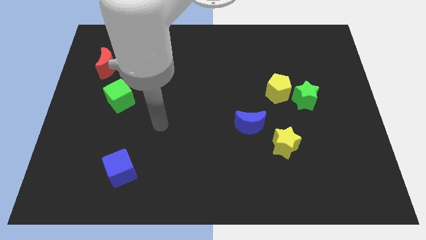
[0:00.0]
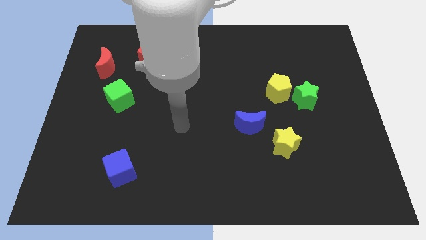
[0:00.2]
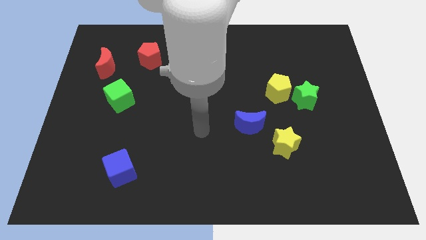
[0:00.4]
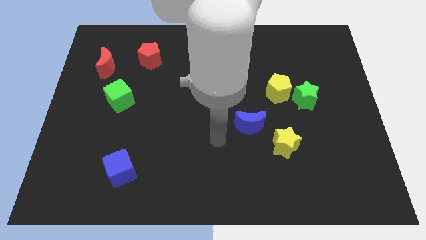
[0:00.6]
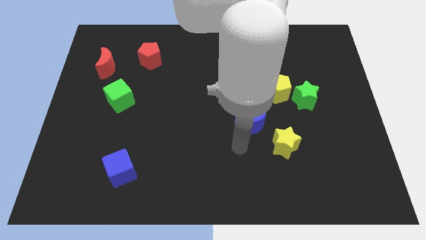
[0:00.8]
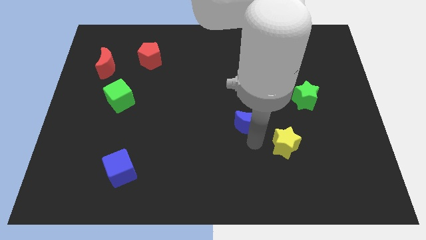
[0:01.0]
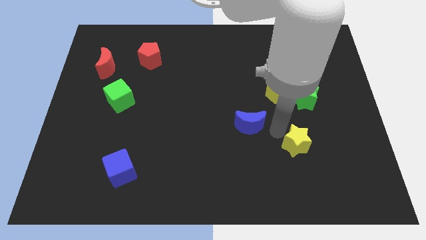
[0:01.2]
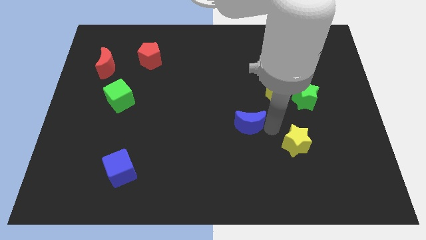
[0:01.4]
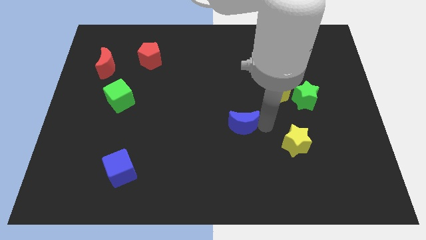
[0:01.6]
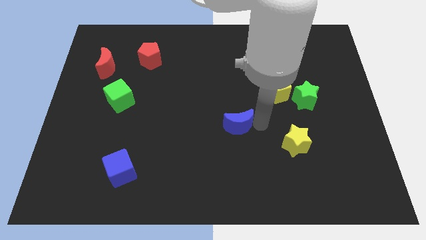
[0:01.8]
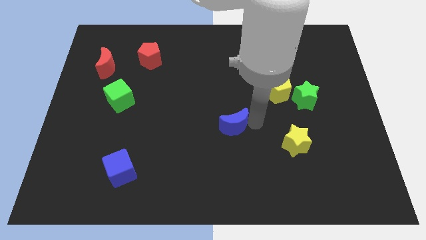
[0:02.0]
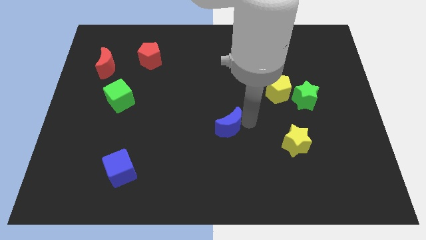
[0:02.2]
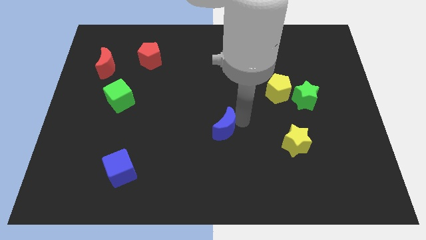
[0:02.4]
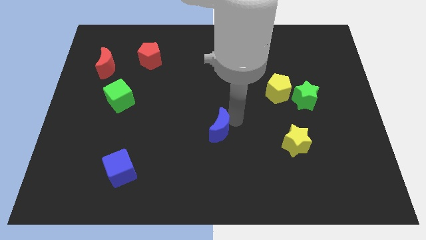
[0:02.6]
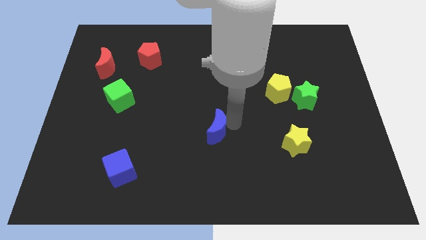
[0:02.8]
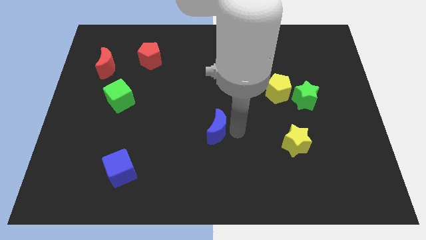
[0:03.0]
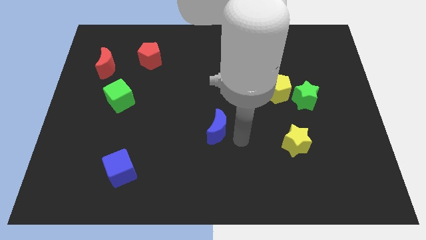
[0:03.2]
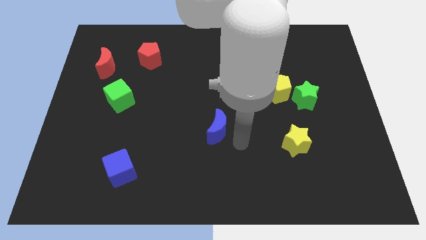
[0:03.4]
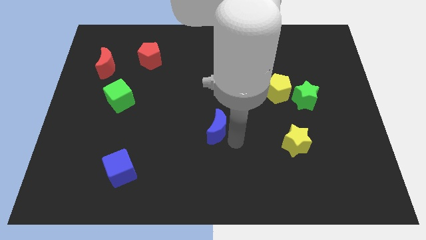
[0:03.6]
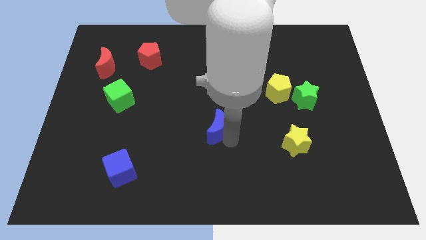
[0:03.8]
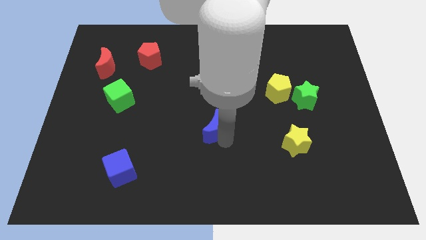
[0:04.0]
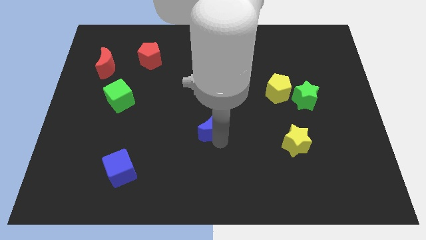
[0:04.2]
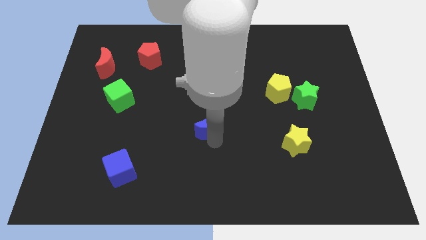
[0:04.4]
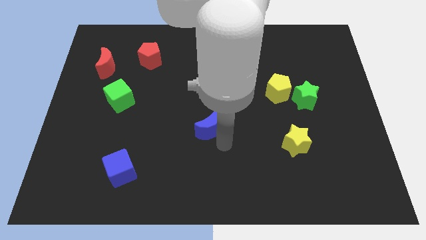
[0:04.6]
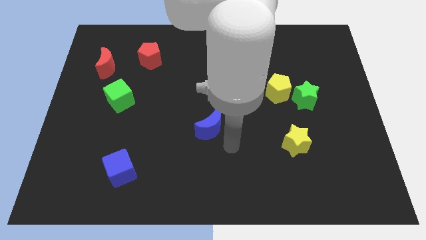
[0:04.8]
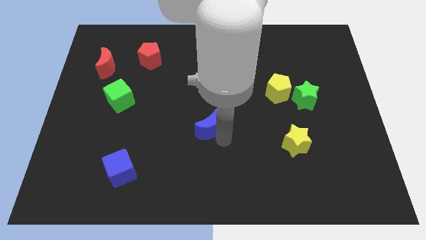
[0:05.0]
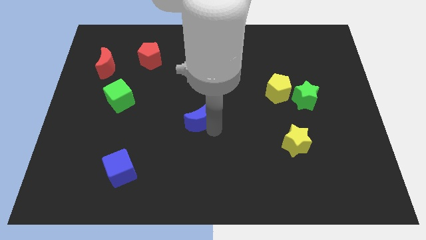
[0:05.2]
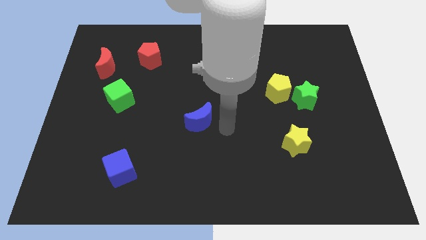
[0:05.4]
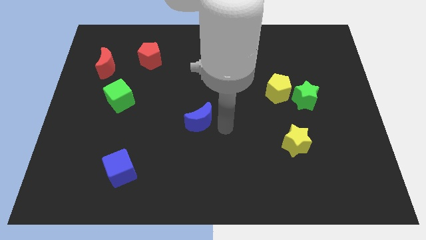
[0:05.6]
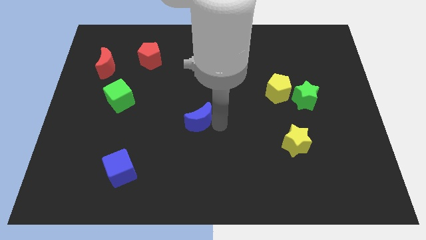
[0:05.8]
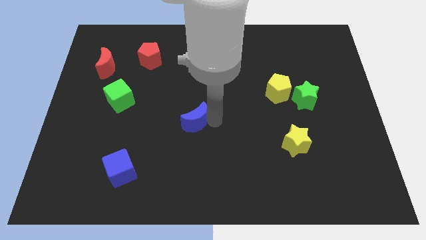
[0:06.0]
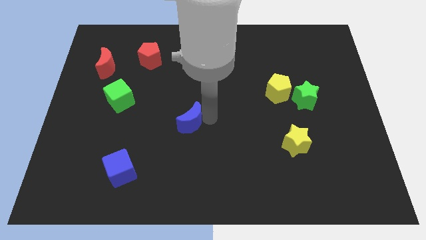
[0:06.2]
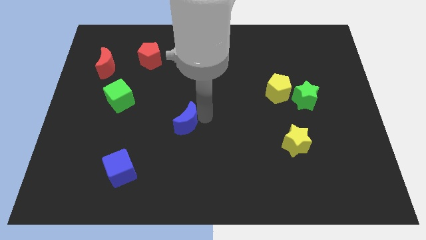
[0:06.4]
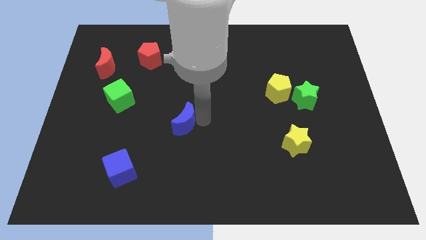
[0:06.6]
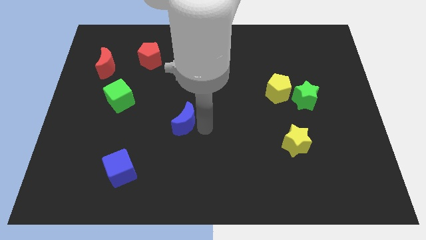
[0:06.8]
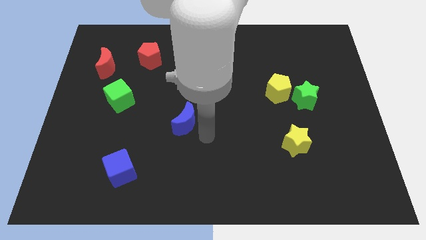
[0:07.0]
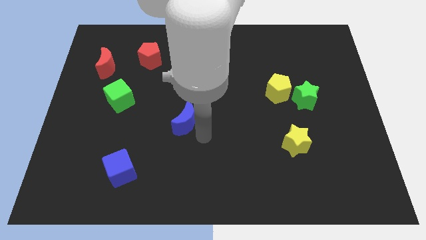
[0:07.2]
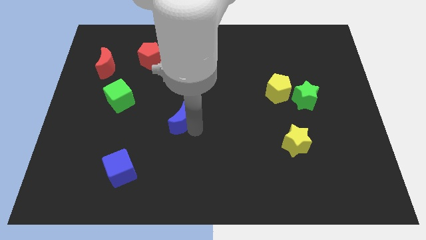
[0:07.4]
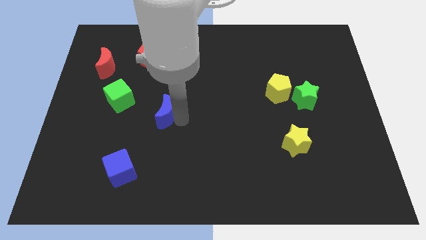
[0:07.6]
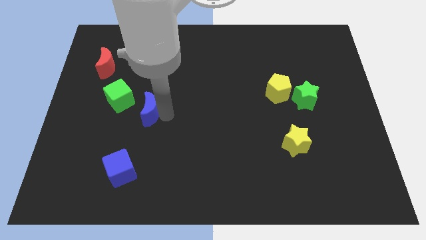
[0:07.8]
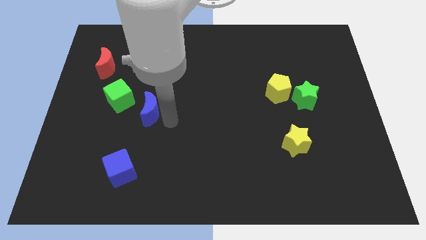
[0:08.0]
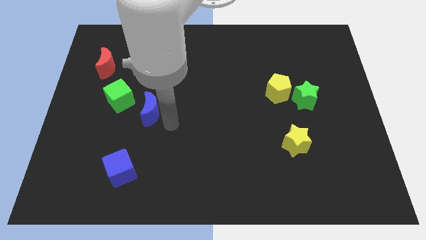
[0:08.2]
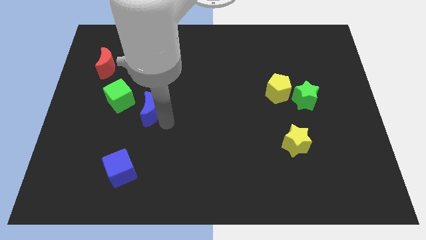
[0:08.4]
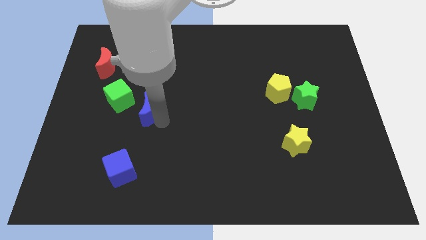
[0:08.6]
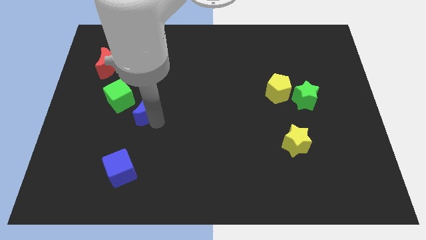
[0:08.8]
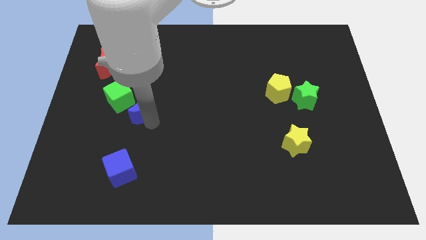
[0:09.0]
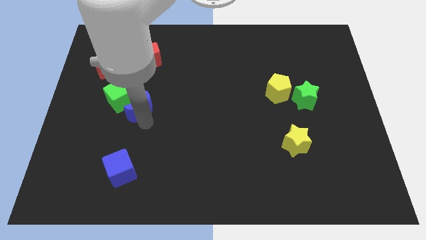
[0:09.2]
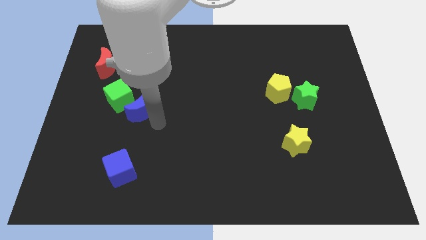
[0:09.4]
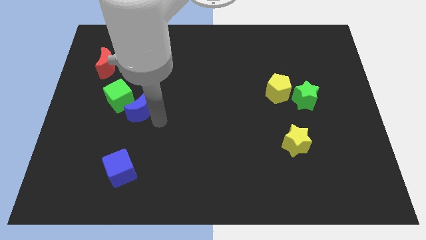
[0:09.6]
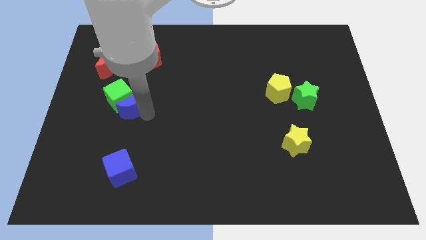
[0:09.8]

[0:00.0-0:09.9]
move the blue moon close to the green cube

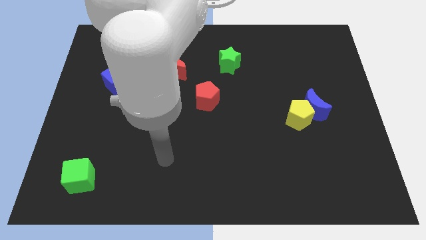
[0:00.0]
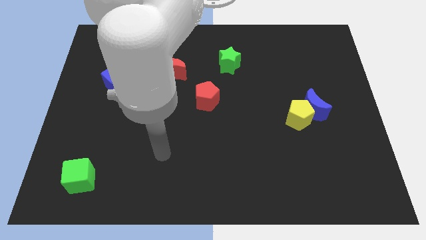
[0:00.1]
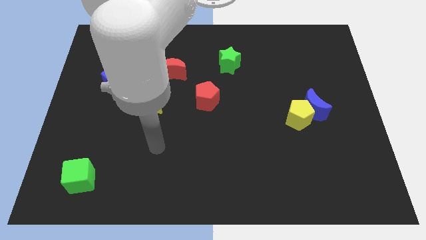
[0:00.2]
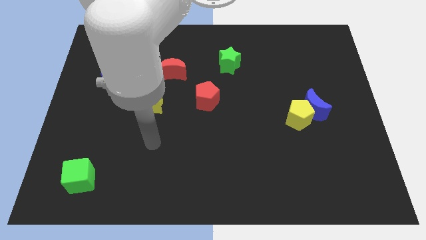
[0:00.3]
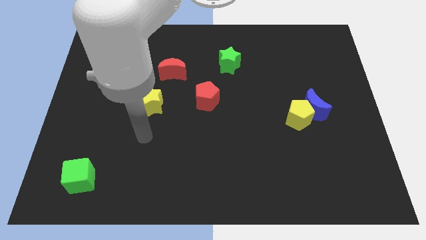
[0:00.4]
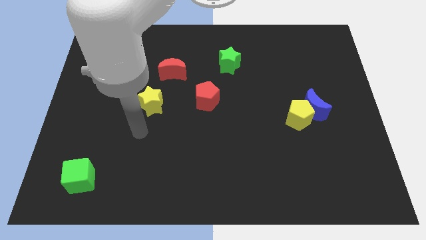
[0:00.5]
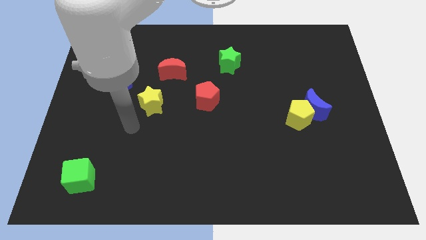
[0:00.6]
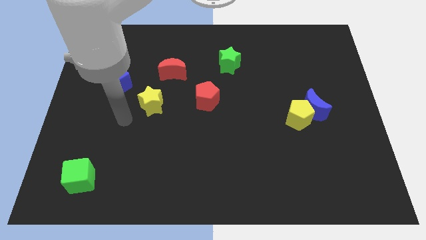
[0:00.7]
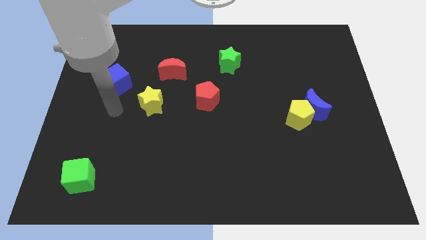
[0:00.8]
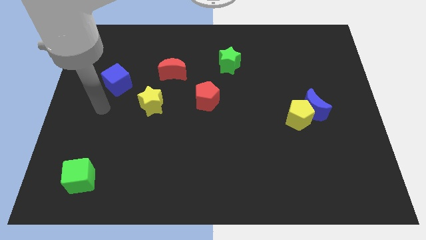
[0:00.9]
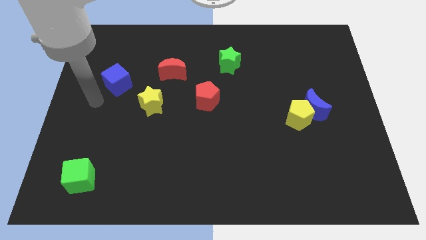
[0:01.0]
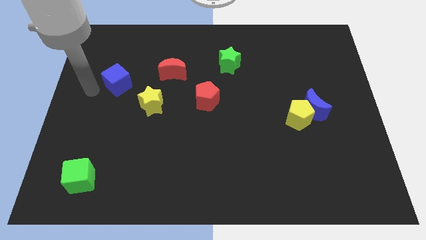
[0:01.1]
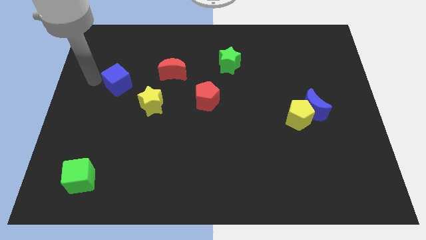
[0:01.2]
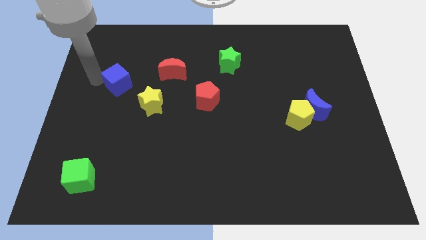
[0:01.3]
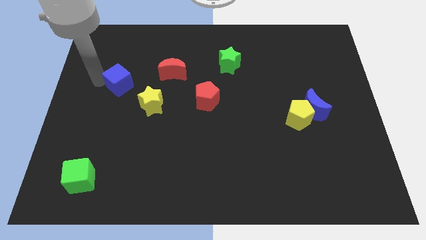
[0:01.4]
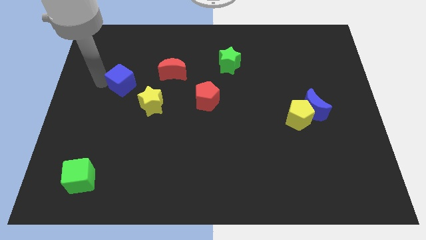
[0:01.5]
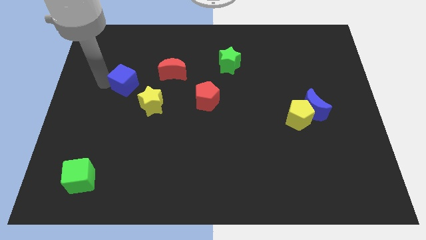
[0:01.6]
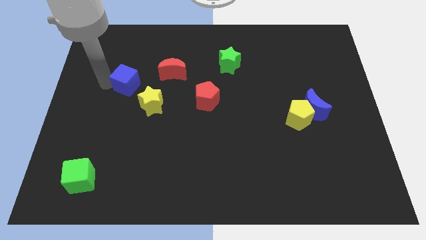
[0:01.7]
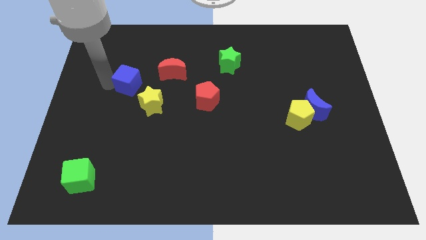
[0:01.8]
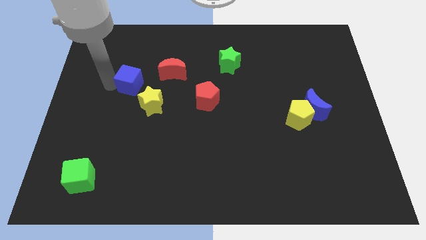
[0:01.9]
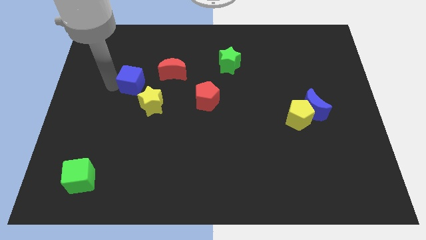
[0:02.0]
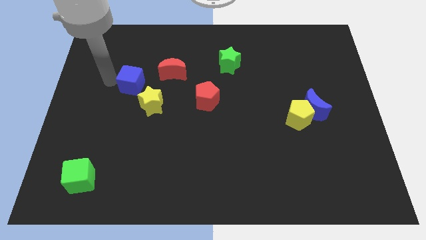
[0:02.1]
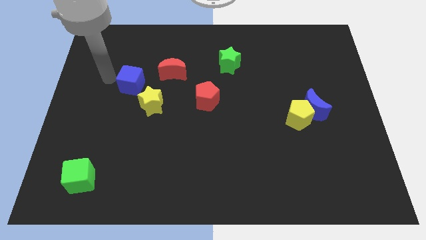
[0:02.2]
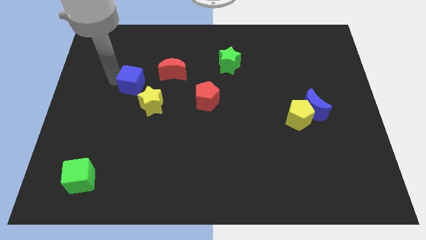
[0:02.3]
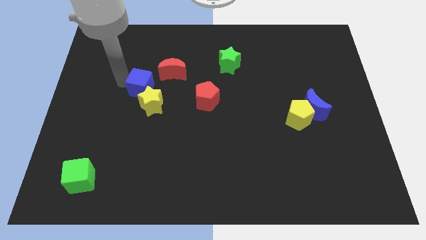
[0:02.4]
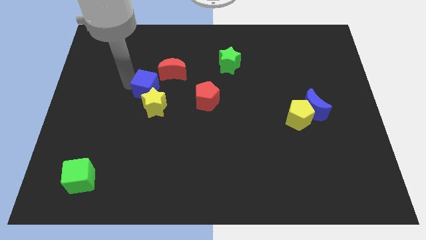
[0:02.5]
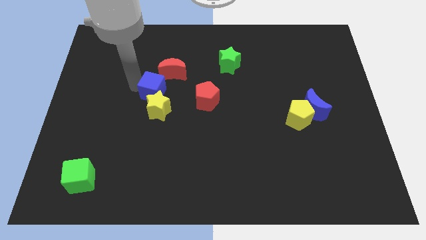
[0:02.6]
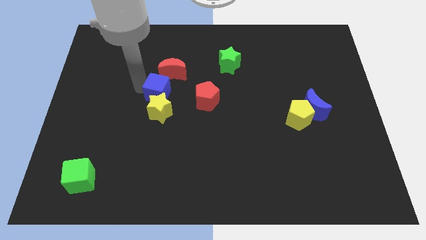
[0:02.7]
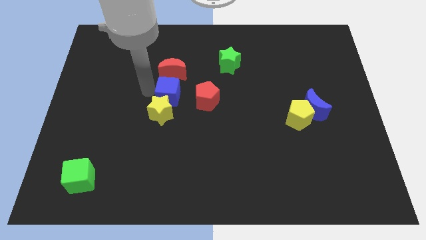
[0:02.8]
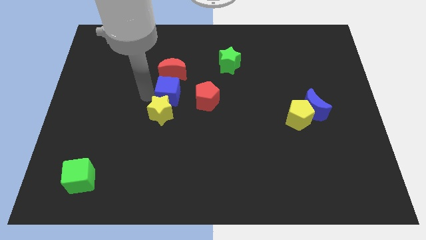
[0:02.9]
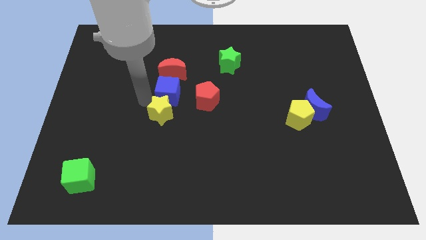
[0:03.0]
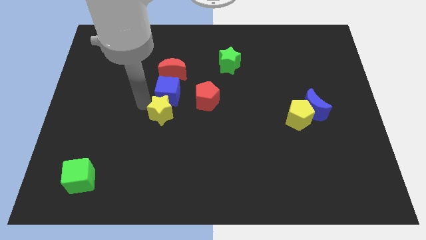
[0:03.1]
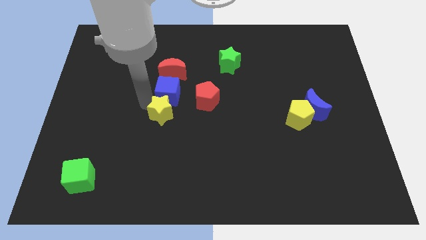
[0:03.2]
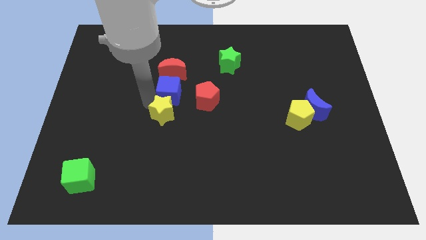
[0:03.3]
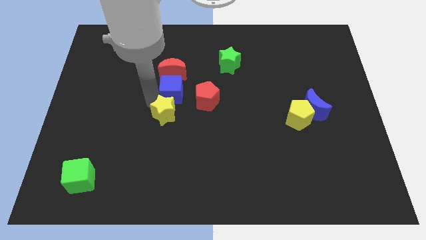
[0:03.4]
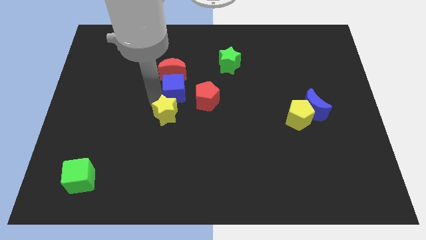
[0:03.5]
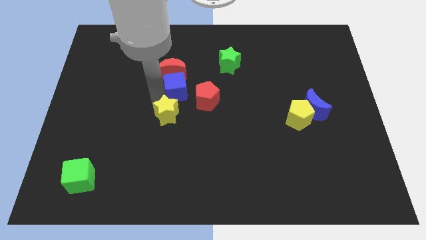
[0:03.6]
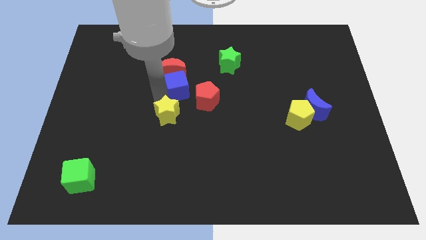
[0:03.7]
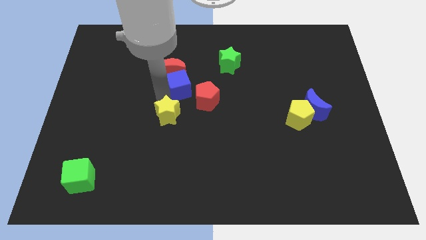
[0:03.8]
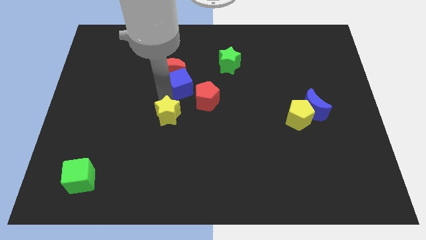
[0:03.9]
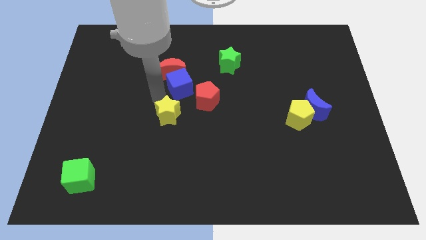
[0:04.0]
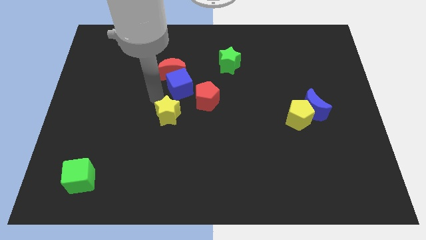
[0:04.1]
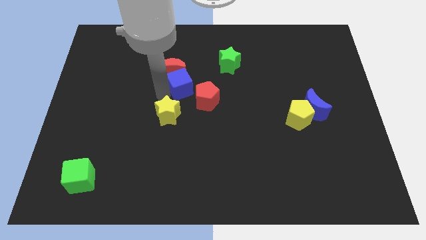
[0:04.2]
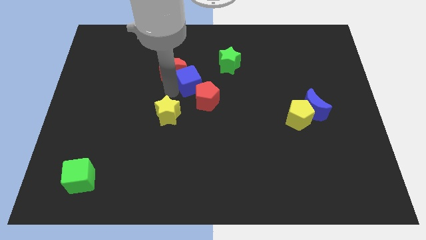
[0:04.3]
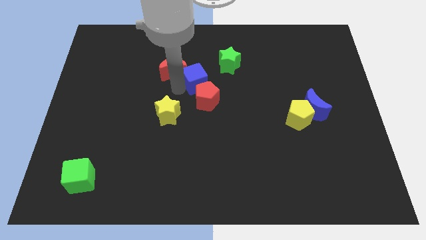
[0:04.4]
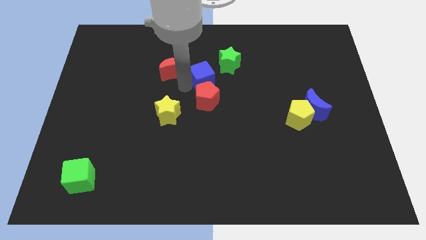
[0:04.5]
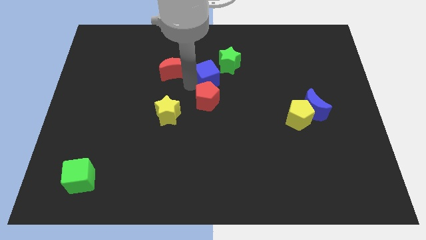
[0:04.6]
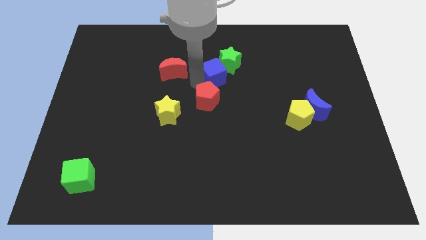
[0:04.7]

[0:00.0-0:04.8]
push the blue cube towards the green star
